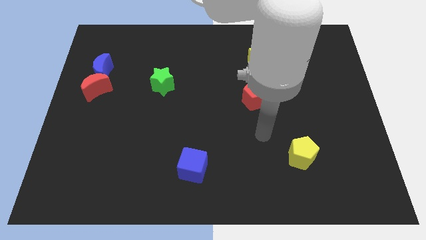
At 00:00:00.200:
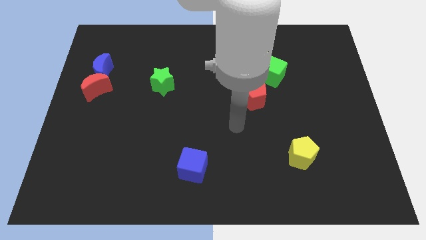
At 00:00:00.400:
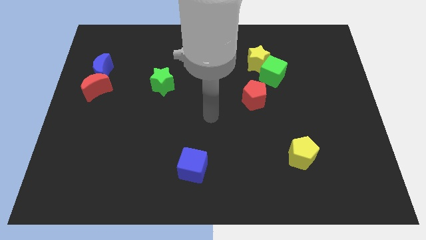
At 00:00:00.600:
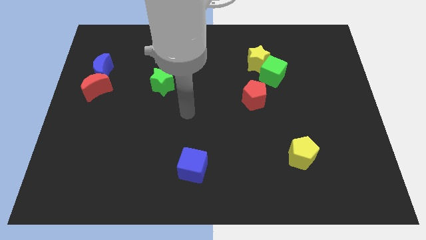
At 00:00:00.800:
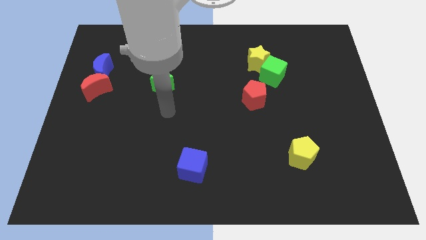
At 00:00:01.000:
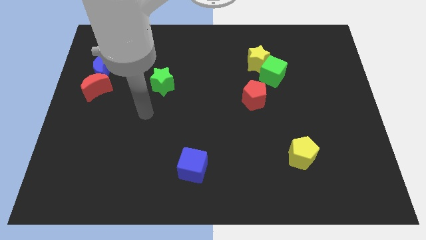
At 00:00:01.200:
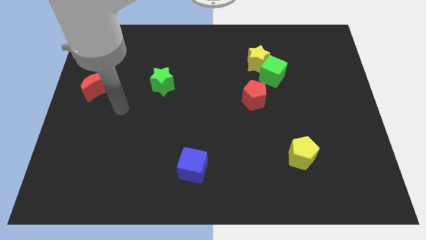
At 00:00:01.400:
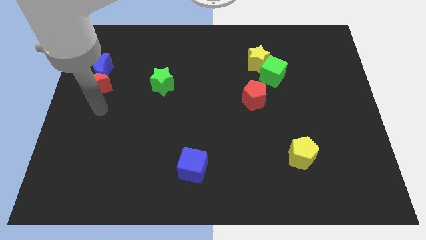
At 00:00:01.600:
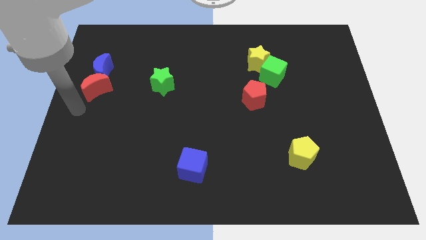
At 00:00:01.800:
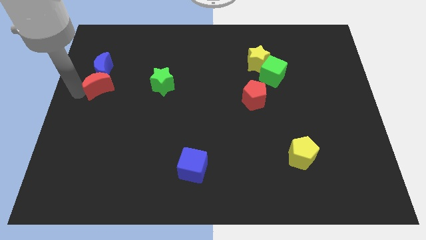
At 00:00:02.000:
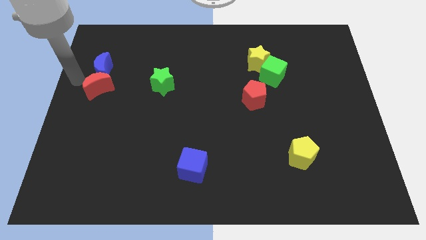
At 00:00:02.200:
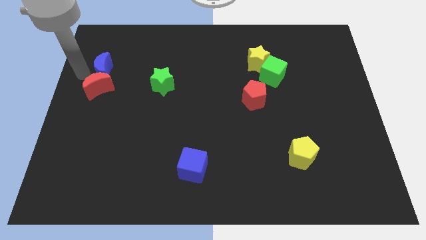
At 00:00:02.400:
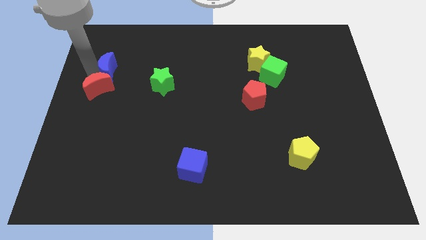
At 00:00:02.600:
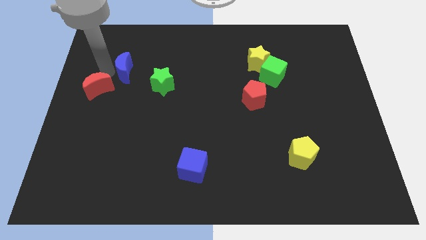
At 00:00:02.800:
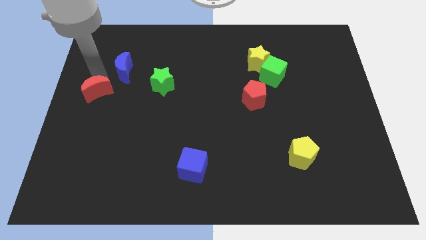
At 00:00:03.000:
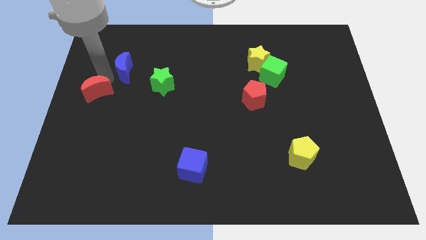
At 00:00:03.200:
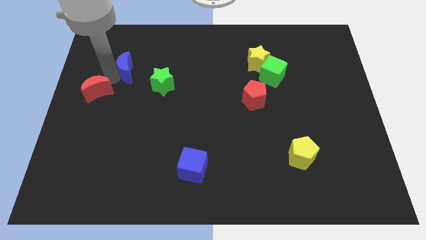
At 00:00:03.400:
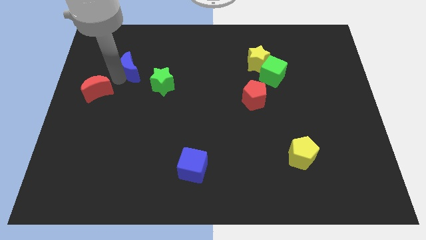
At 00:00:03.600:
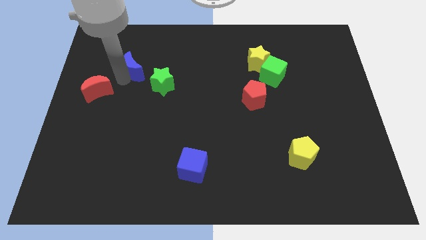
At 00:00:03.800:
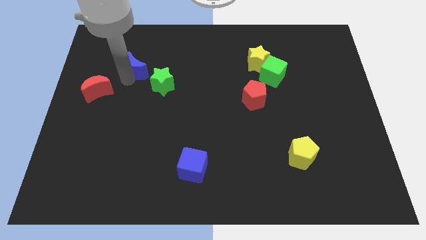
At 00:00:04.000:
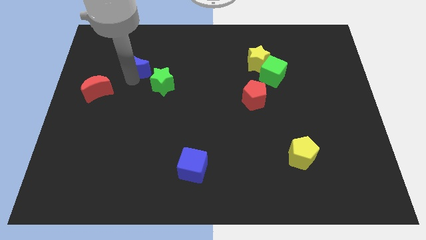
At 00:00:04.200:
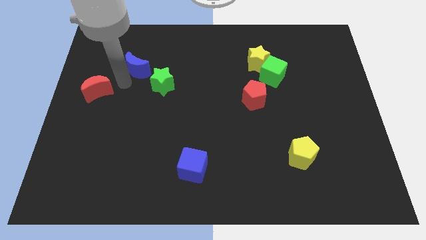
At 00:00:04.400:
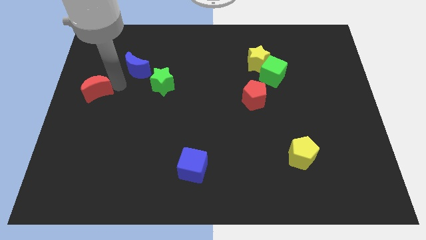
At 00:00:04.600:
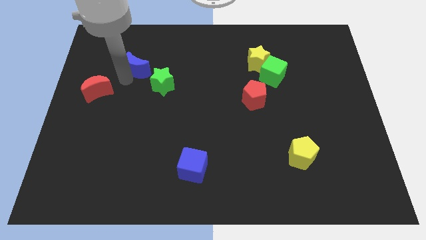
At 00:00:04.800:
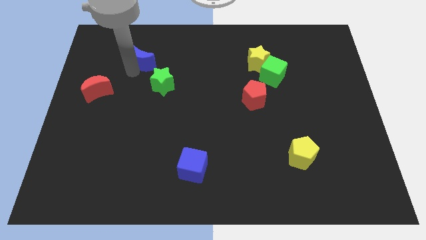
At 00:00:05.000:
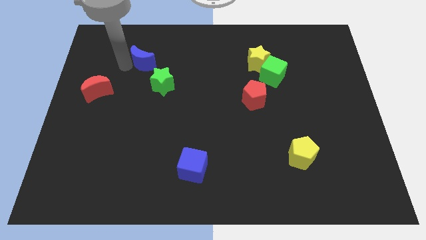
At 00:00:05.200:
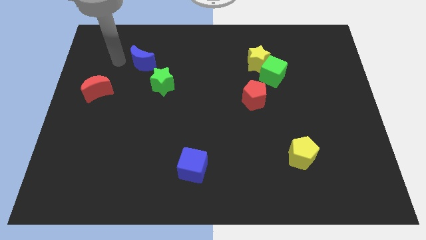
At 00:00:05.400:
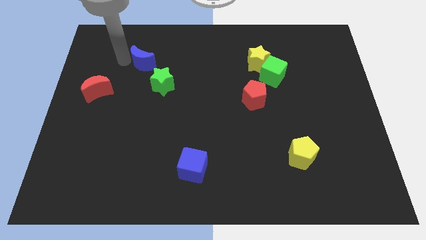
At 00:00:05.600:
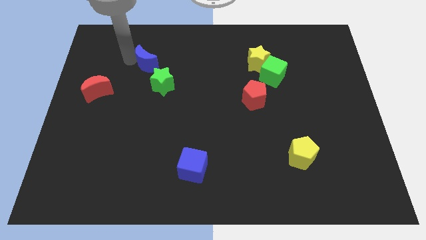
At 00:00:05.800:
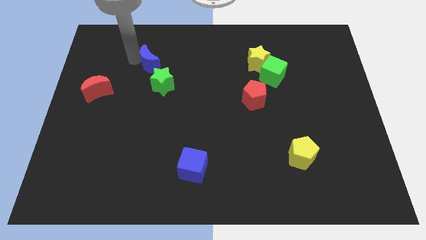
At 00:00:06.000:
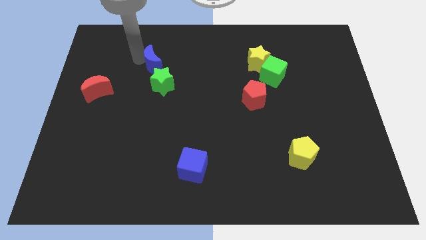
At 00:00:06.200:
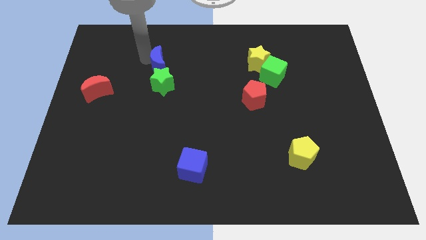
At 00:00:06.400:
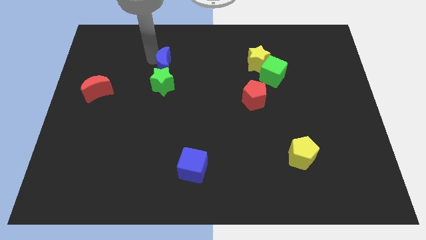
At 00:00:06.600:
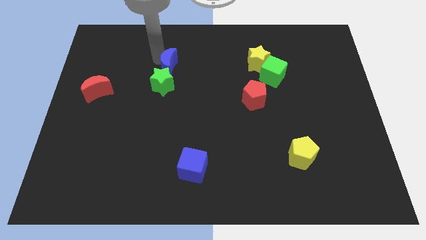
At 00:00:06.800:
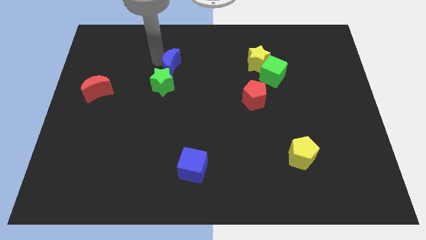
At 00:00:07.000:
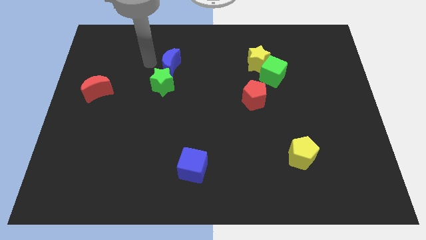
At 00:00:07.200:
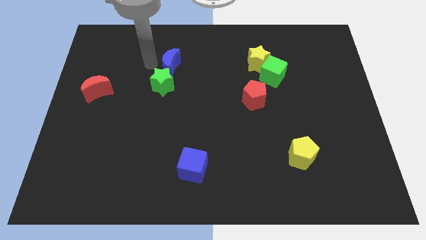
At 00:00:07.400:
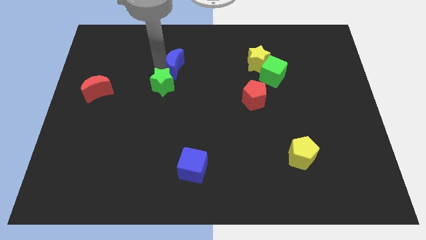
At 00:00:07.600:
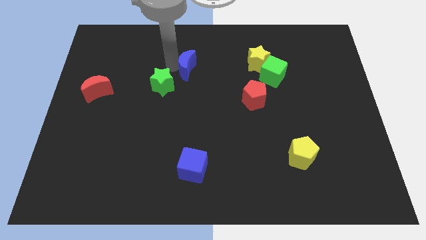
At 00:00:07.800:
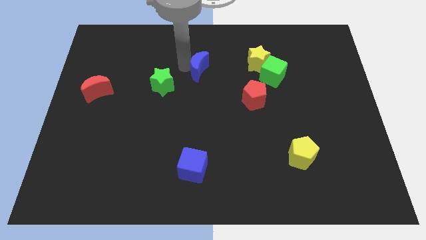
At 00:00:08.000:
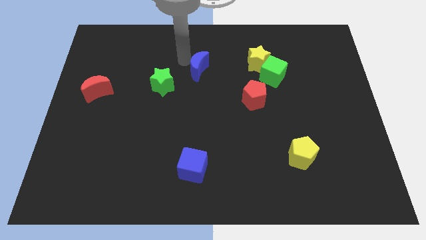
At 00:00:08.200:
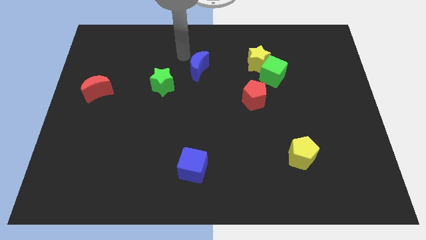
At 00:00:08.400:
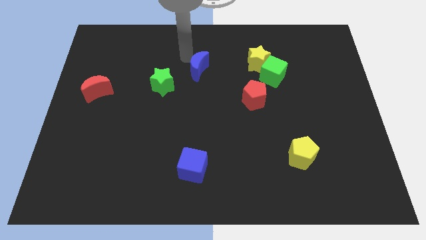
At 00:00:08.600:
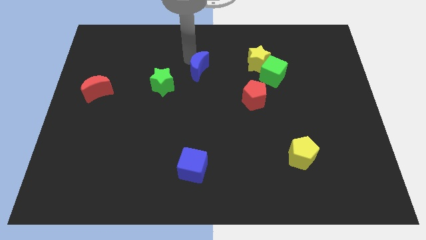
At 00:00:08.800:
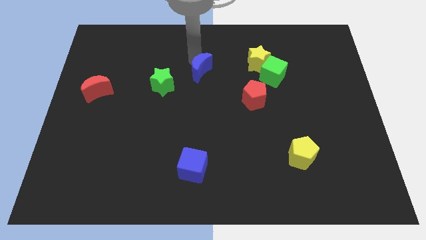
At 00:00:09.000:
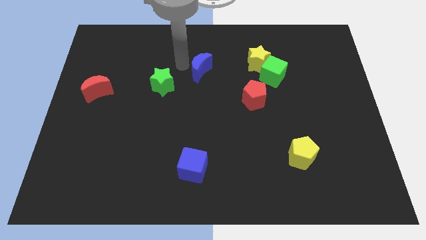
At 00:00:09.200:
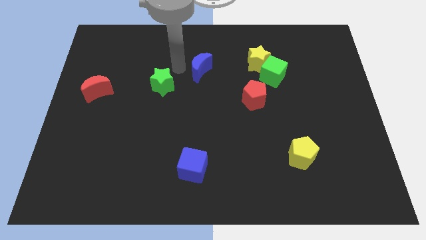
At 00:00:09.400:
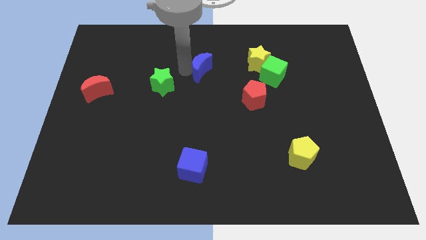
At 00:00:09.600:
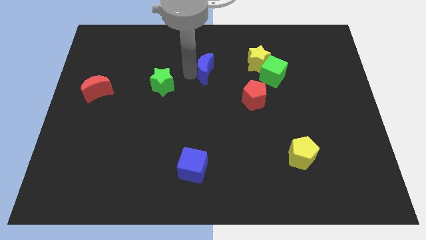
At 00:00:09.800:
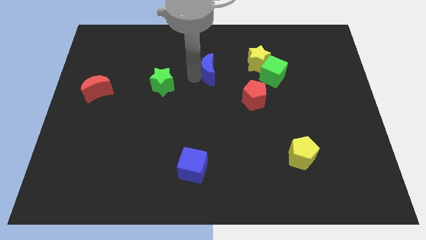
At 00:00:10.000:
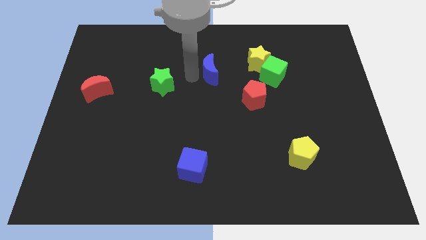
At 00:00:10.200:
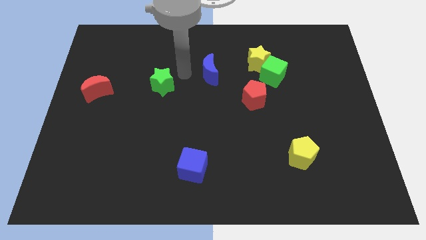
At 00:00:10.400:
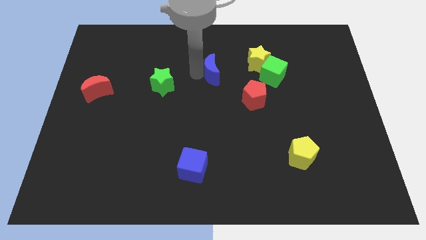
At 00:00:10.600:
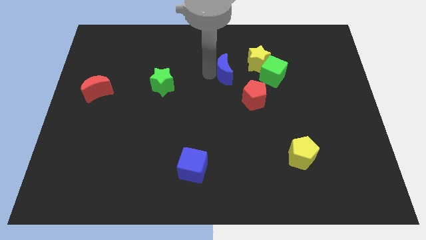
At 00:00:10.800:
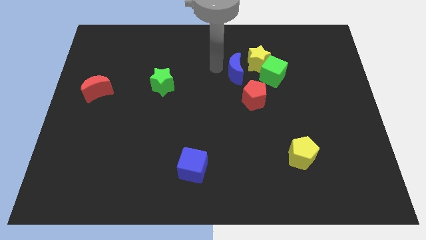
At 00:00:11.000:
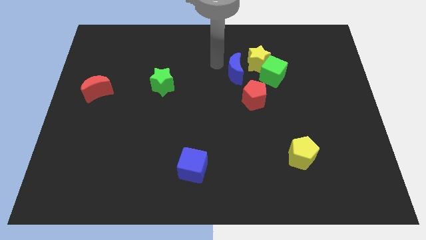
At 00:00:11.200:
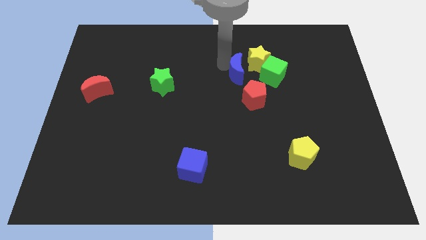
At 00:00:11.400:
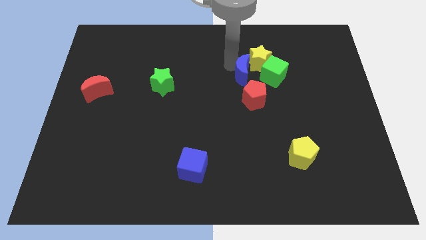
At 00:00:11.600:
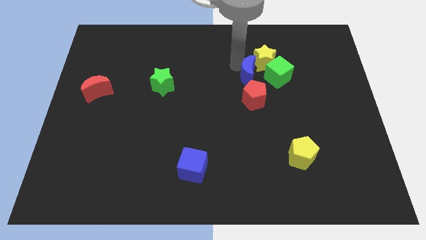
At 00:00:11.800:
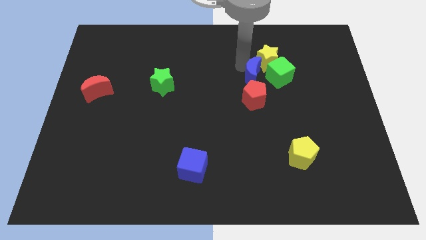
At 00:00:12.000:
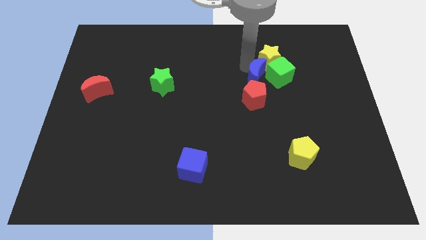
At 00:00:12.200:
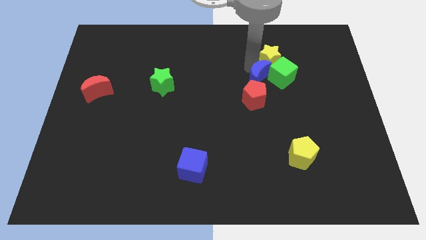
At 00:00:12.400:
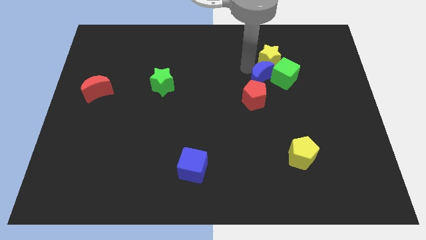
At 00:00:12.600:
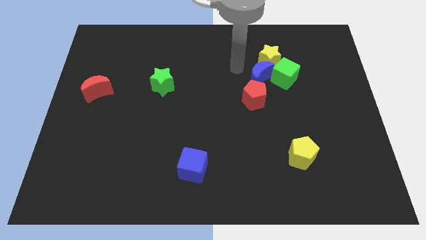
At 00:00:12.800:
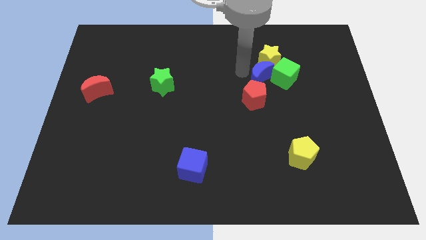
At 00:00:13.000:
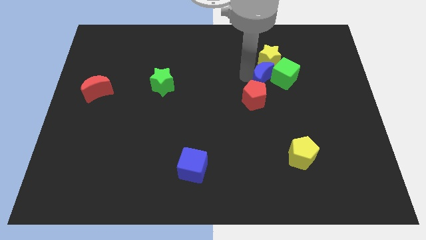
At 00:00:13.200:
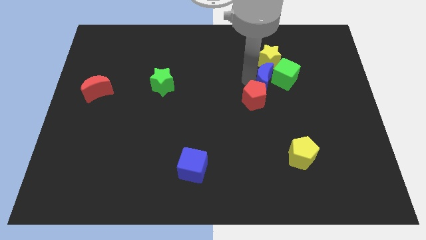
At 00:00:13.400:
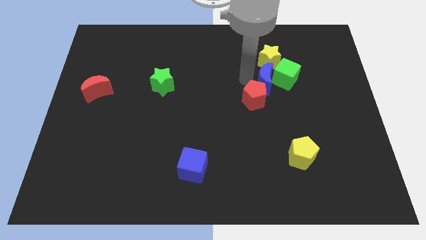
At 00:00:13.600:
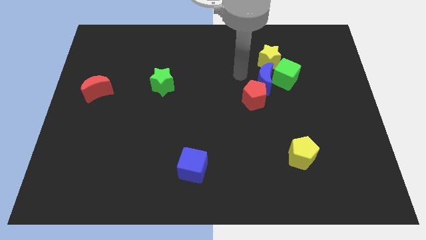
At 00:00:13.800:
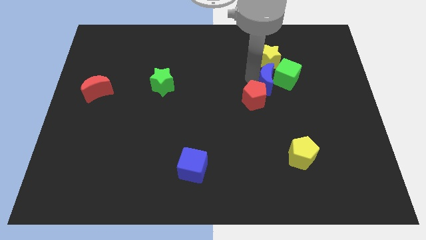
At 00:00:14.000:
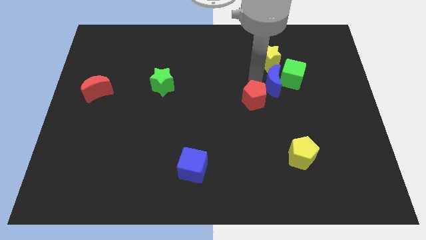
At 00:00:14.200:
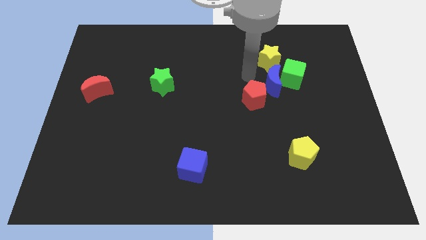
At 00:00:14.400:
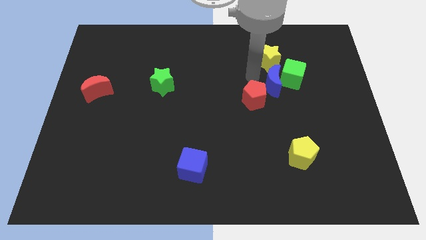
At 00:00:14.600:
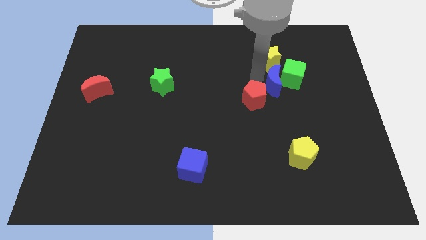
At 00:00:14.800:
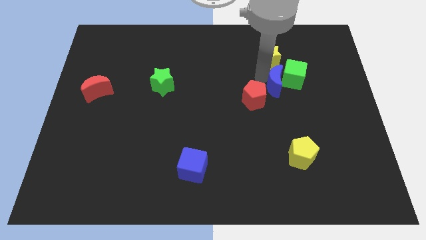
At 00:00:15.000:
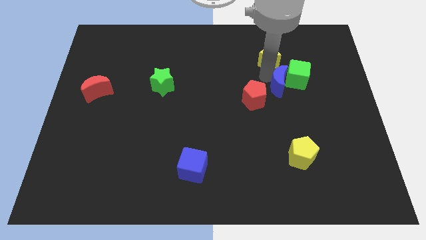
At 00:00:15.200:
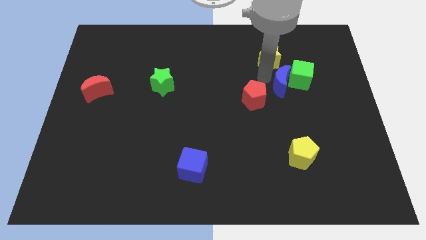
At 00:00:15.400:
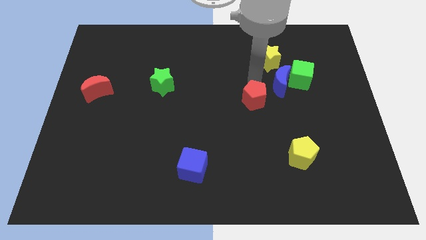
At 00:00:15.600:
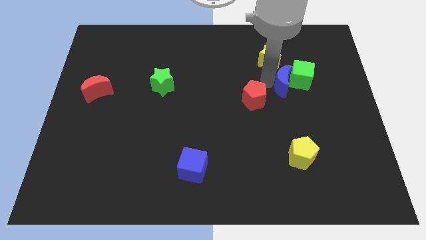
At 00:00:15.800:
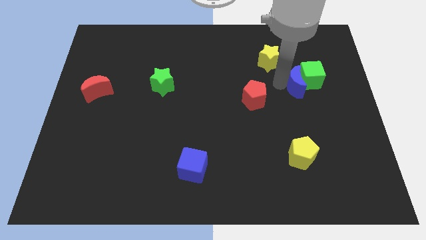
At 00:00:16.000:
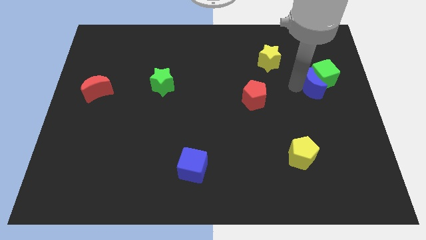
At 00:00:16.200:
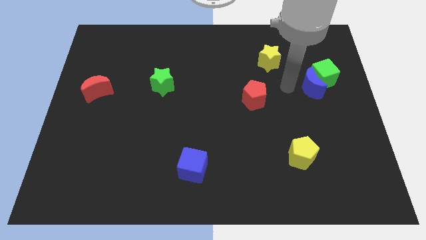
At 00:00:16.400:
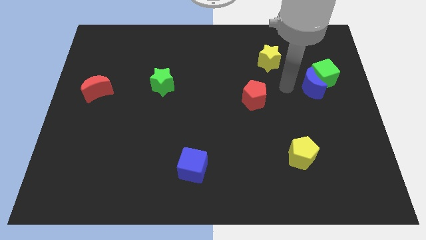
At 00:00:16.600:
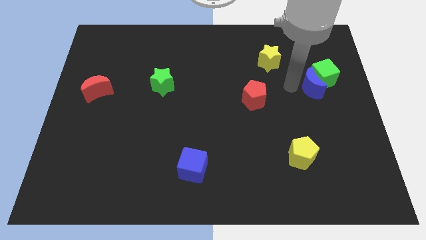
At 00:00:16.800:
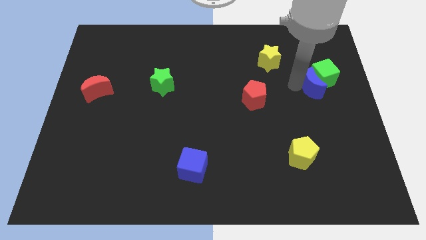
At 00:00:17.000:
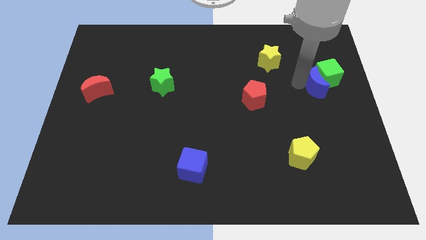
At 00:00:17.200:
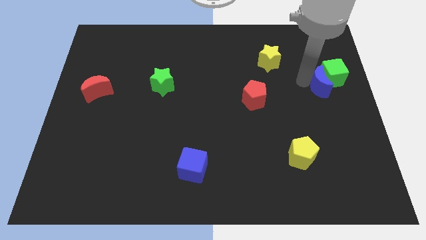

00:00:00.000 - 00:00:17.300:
put the blue moon to the right side
